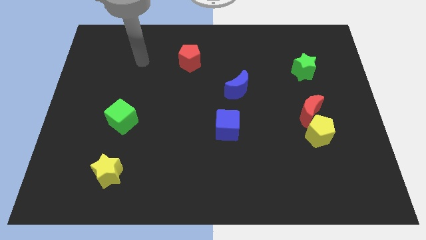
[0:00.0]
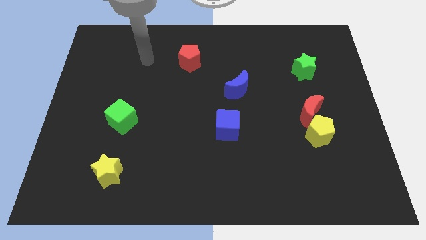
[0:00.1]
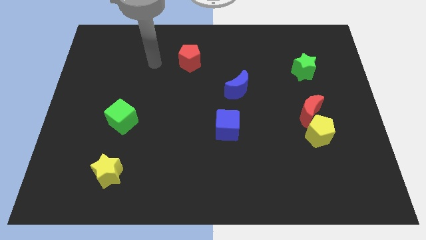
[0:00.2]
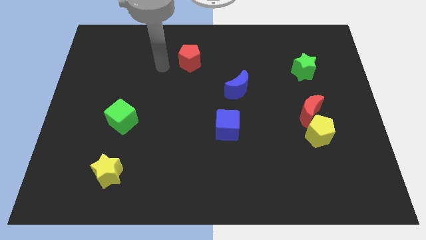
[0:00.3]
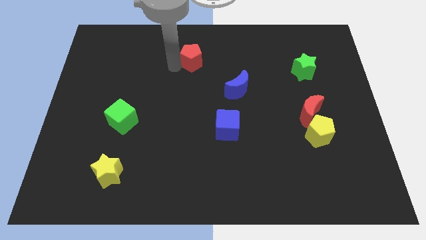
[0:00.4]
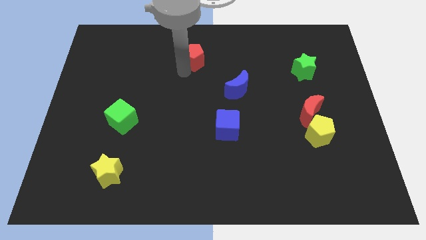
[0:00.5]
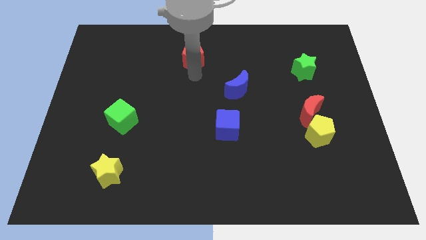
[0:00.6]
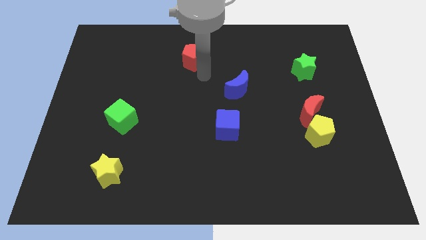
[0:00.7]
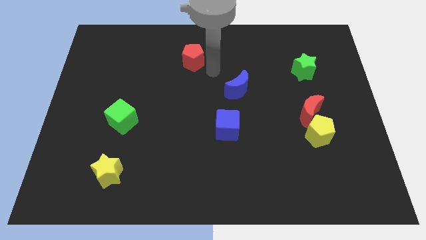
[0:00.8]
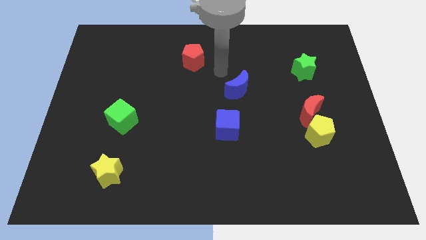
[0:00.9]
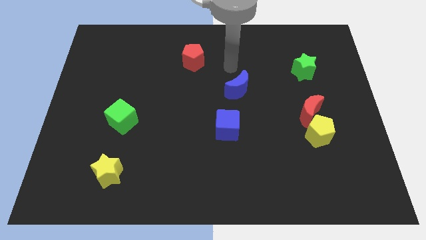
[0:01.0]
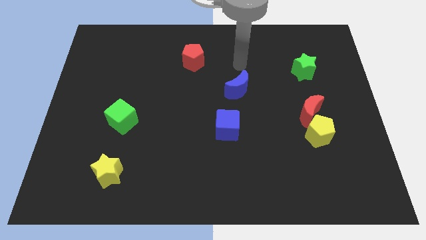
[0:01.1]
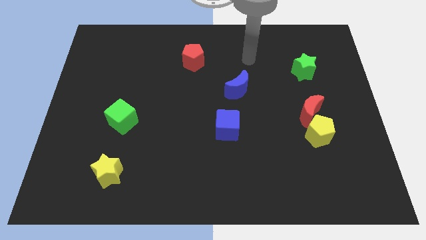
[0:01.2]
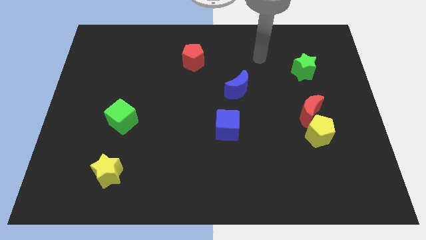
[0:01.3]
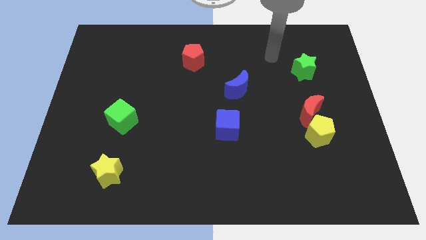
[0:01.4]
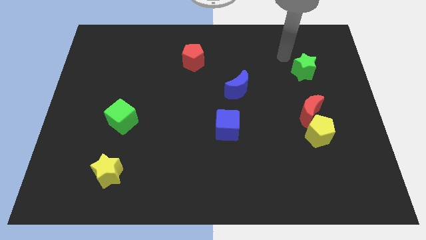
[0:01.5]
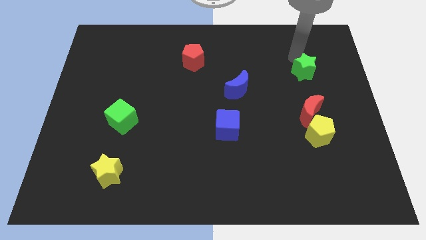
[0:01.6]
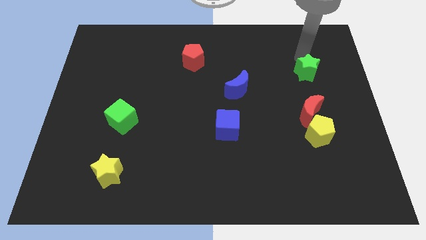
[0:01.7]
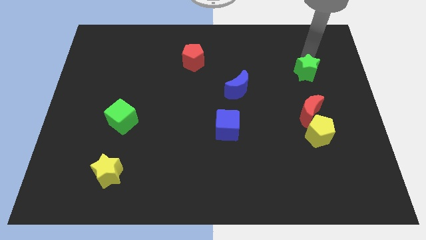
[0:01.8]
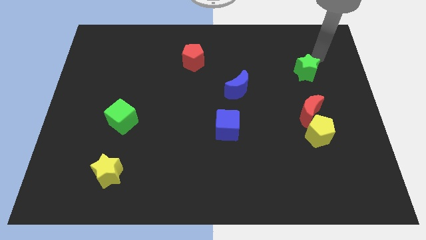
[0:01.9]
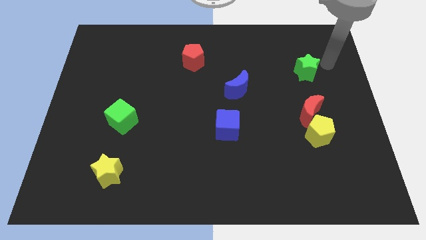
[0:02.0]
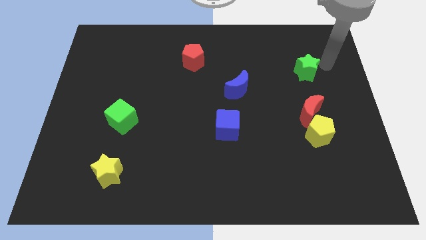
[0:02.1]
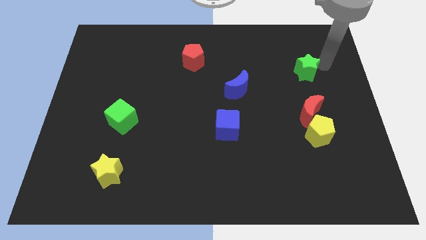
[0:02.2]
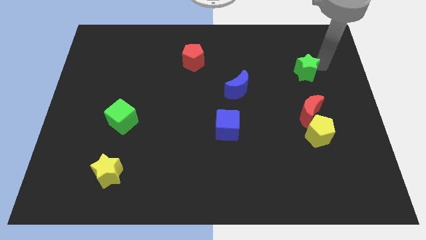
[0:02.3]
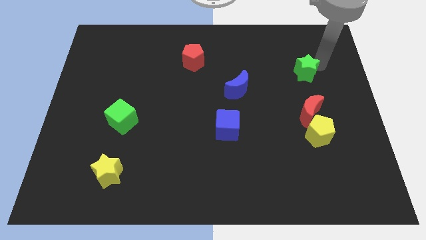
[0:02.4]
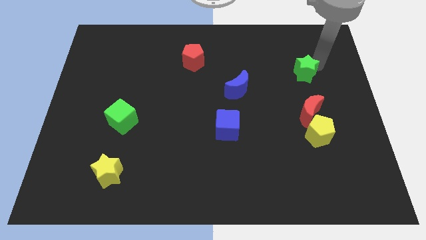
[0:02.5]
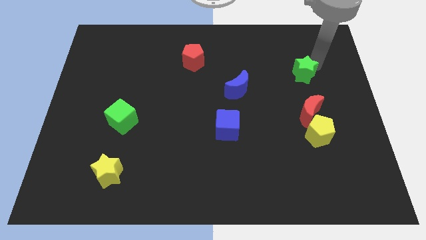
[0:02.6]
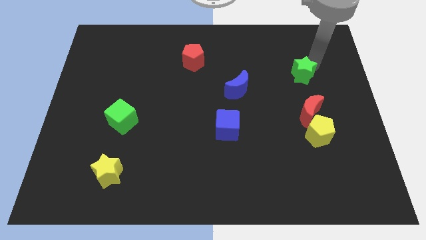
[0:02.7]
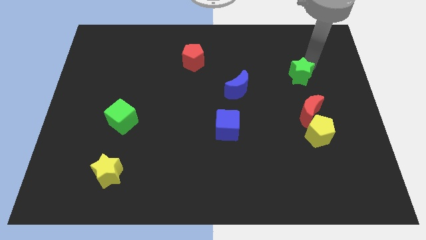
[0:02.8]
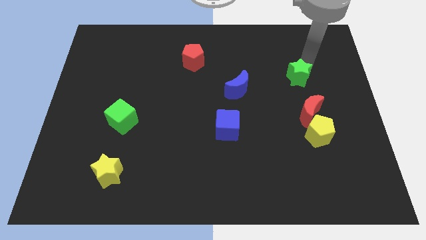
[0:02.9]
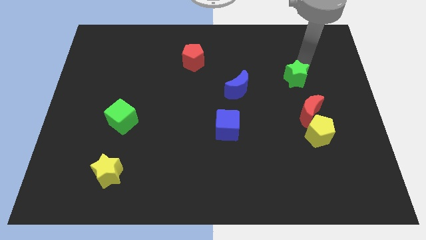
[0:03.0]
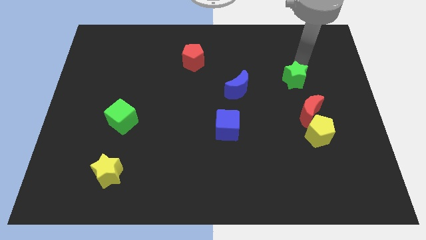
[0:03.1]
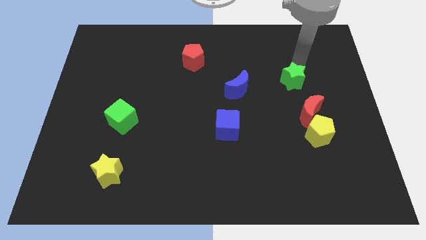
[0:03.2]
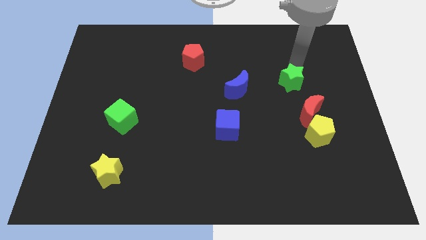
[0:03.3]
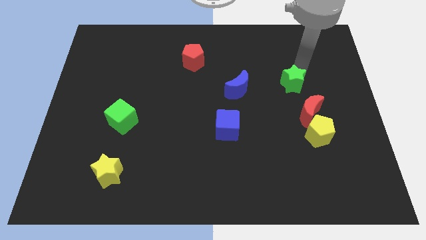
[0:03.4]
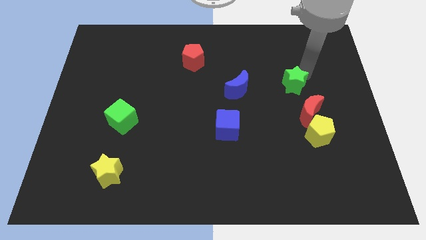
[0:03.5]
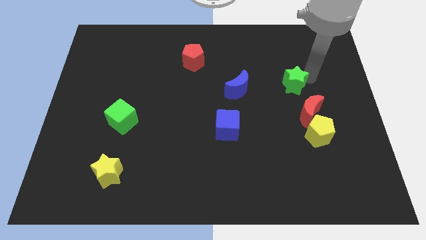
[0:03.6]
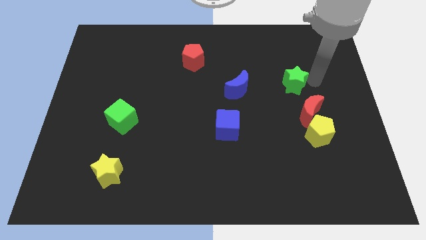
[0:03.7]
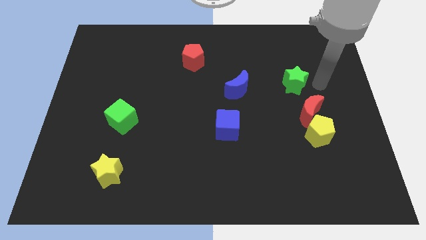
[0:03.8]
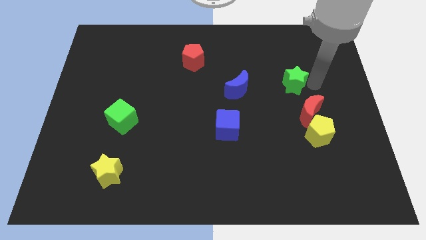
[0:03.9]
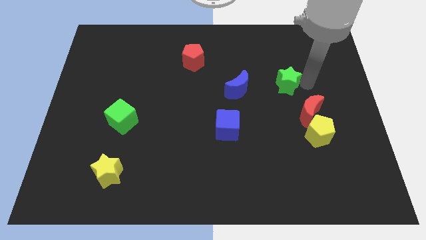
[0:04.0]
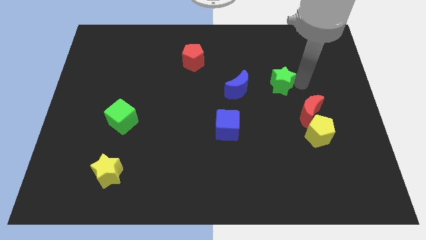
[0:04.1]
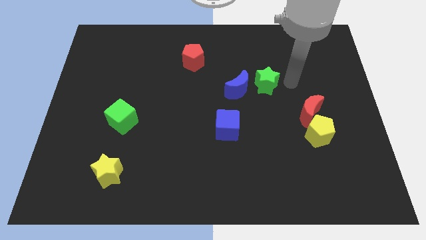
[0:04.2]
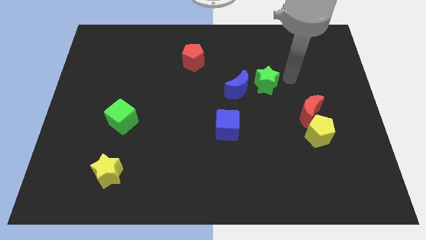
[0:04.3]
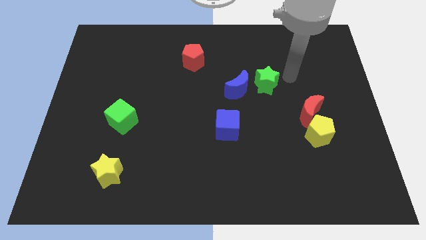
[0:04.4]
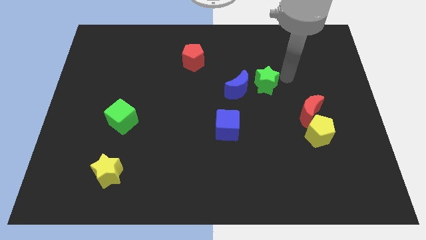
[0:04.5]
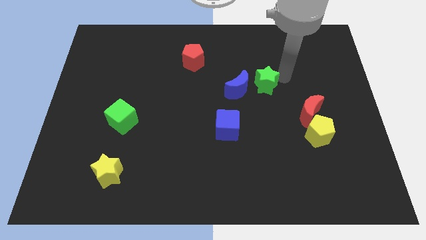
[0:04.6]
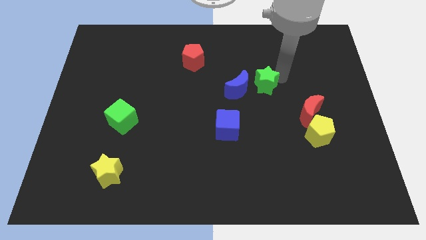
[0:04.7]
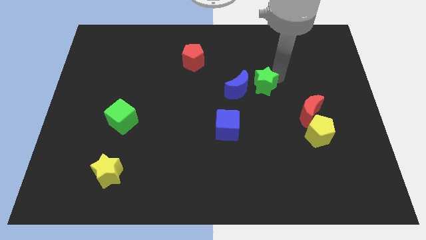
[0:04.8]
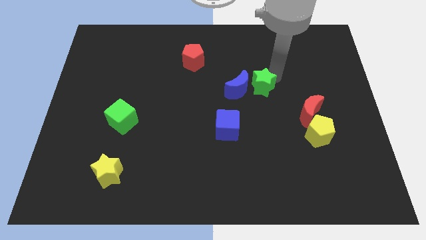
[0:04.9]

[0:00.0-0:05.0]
put the green star next to the blue moon

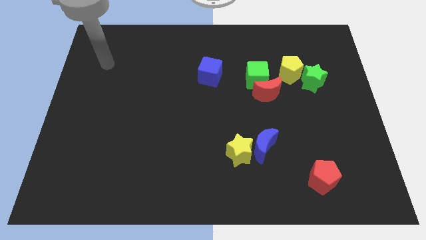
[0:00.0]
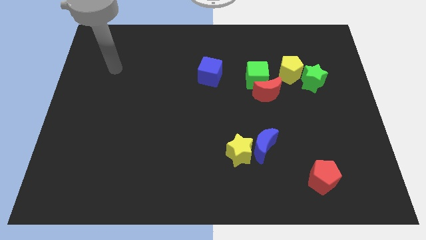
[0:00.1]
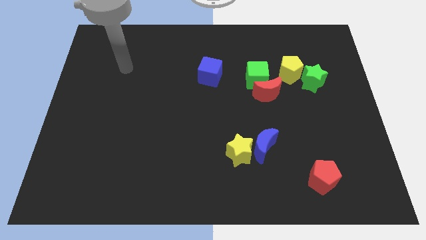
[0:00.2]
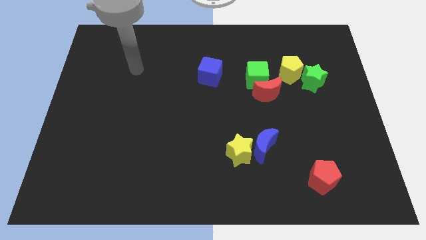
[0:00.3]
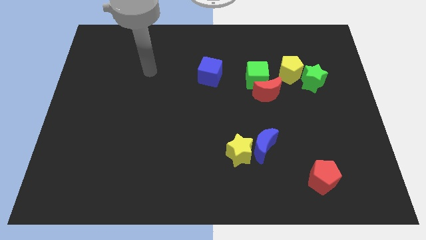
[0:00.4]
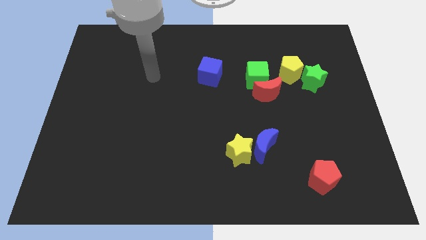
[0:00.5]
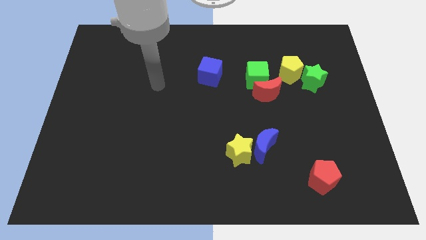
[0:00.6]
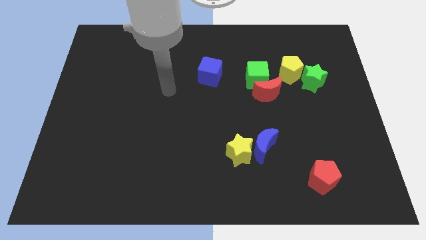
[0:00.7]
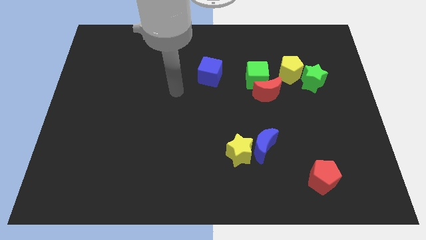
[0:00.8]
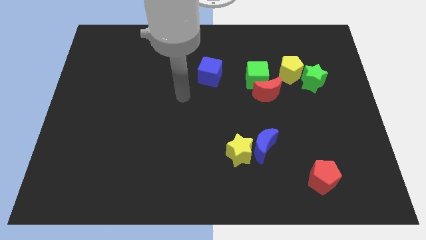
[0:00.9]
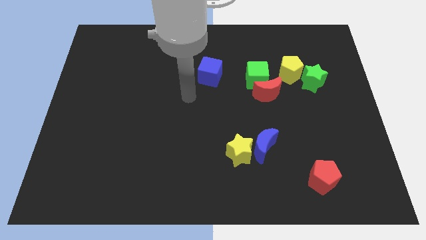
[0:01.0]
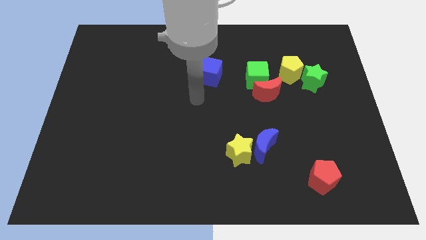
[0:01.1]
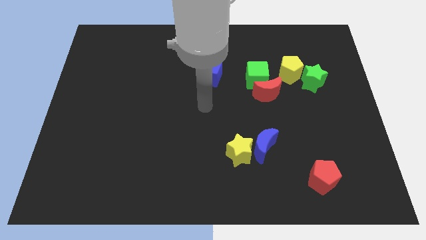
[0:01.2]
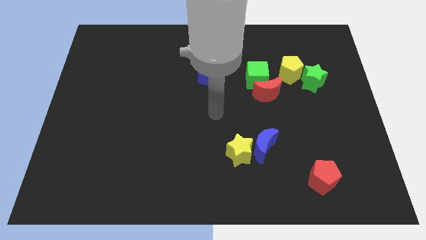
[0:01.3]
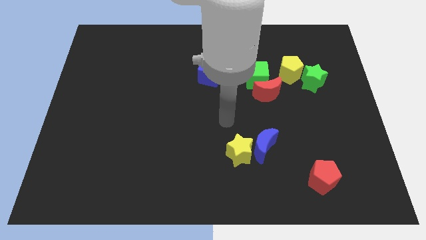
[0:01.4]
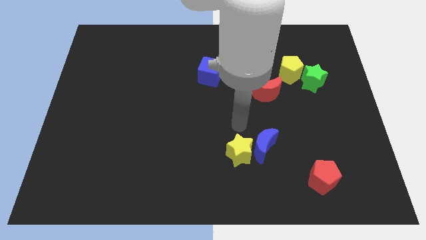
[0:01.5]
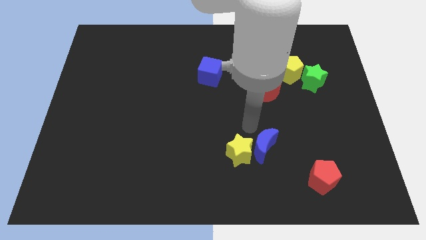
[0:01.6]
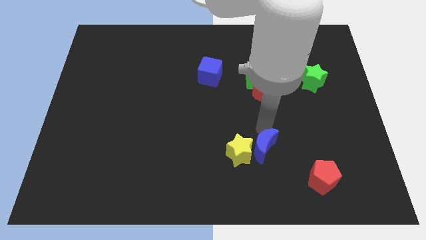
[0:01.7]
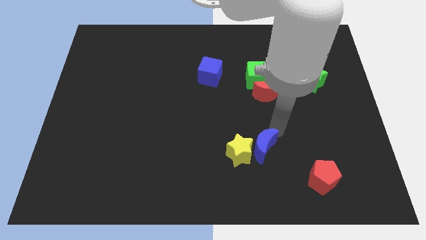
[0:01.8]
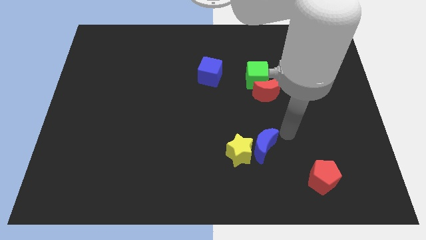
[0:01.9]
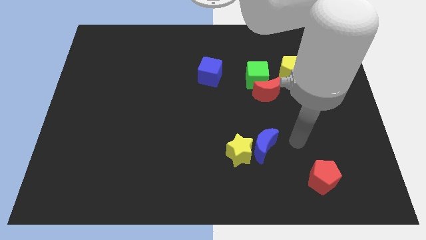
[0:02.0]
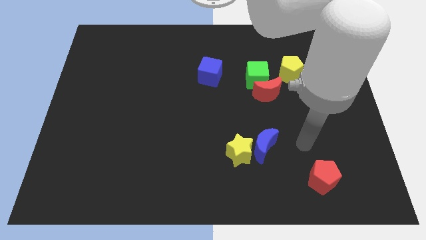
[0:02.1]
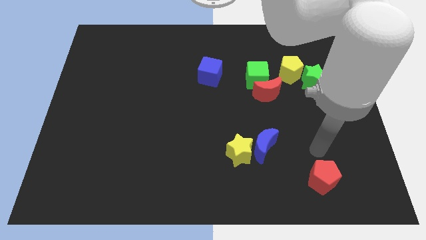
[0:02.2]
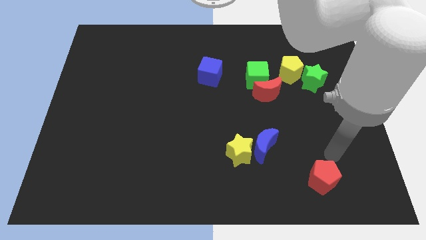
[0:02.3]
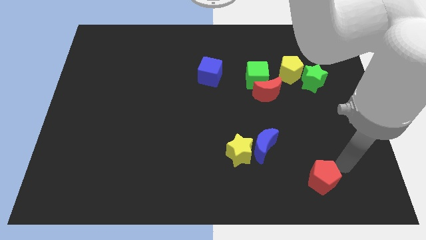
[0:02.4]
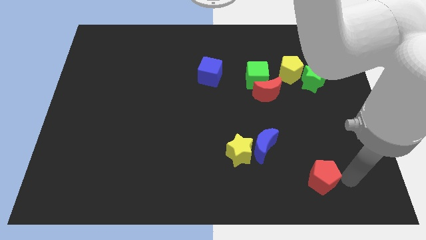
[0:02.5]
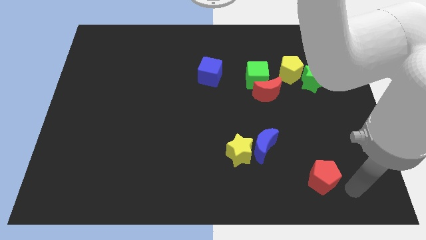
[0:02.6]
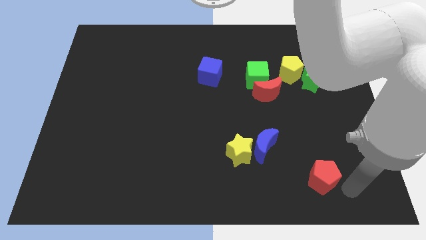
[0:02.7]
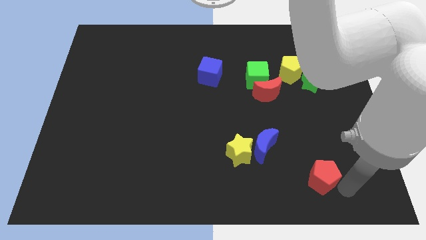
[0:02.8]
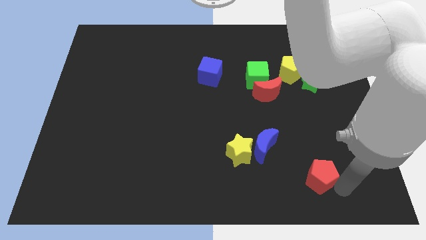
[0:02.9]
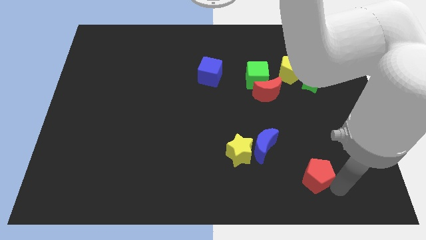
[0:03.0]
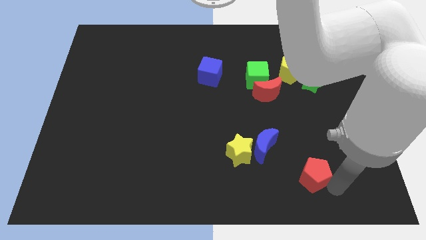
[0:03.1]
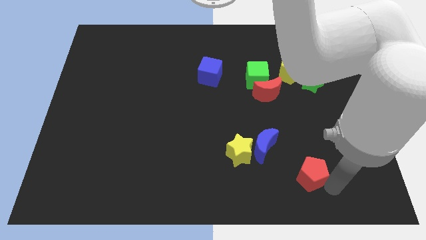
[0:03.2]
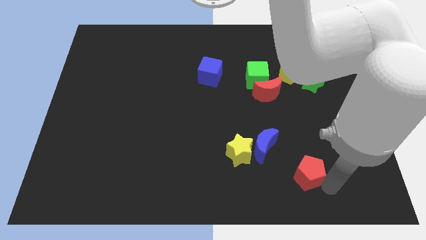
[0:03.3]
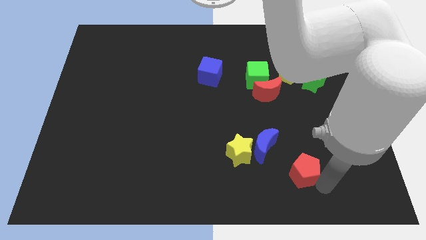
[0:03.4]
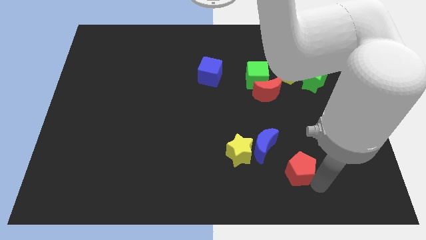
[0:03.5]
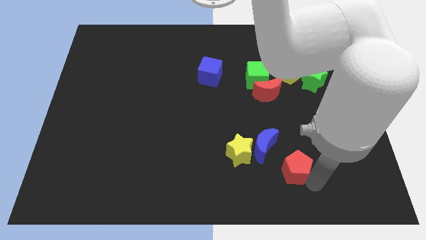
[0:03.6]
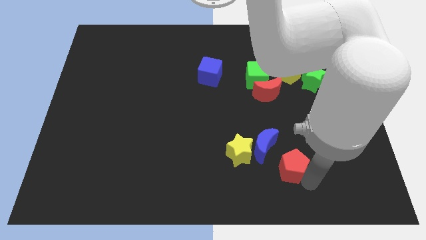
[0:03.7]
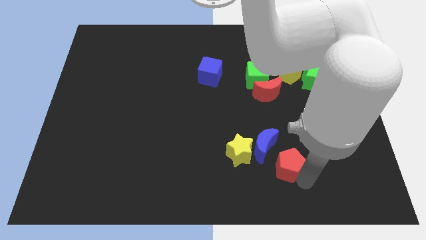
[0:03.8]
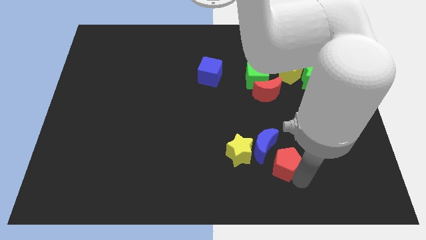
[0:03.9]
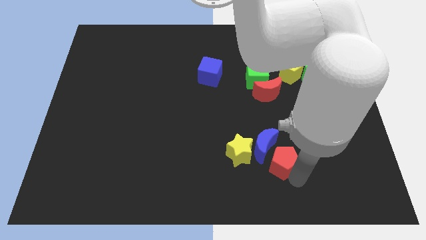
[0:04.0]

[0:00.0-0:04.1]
move the red pentagon towards the blue moon
